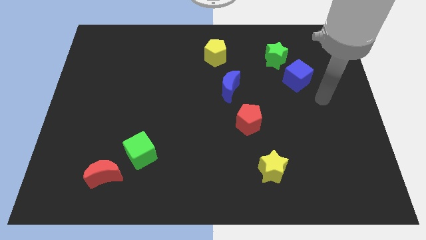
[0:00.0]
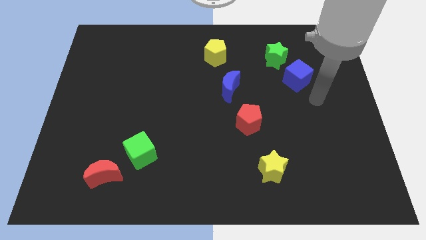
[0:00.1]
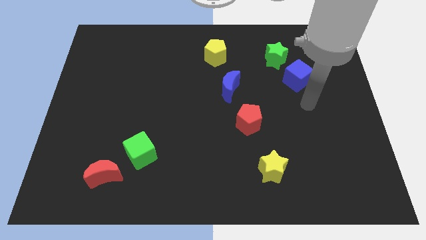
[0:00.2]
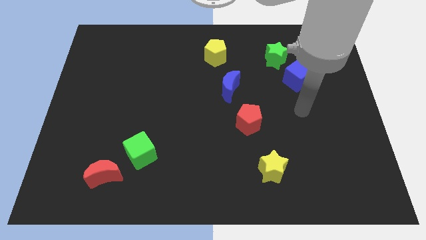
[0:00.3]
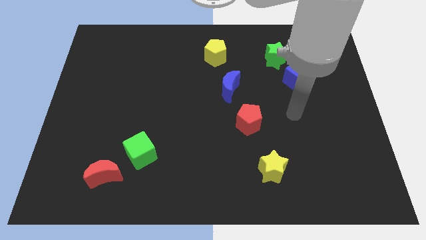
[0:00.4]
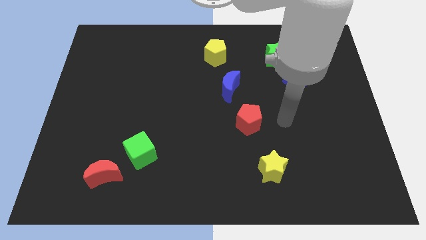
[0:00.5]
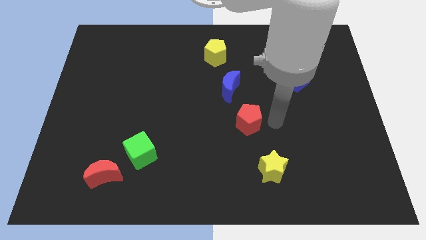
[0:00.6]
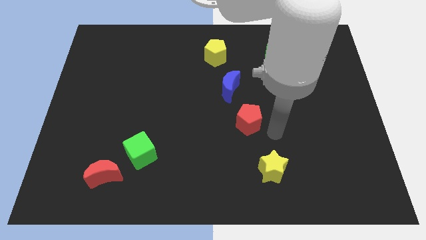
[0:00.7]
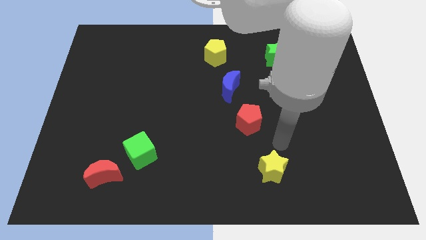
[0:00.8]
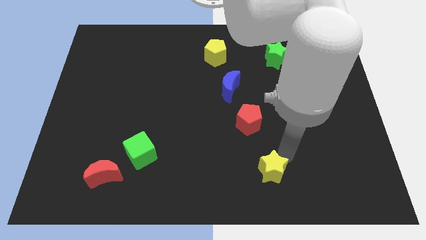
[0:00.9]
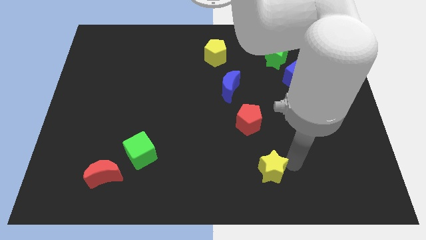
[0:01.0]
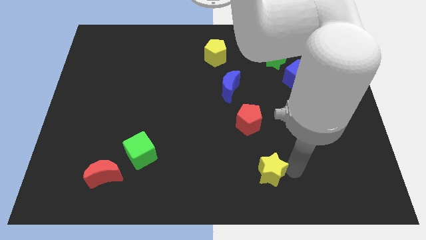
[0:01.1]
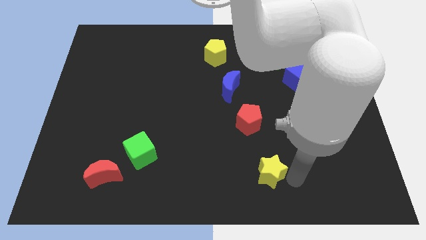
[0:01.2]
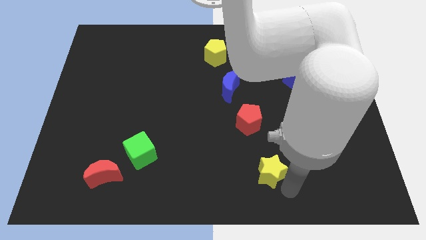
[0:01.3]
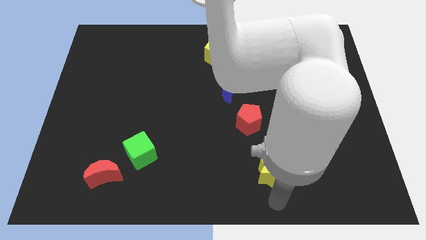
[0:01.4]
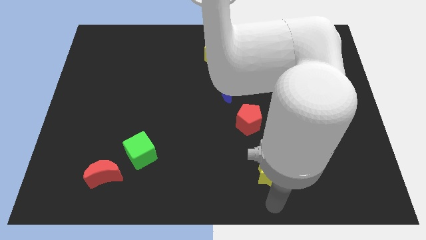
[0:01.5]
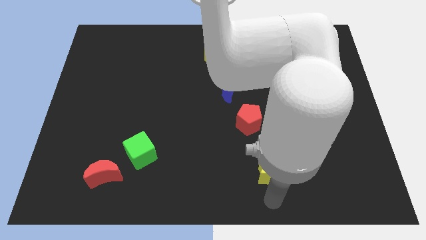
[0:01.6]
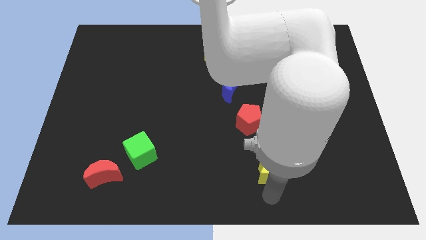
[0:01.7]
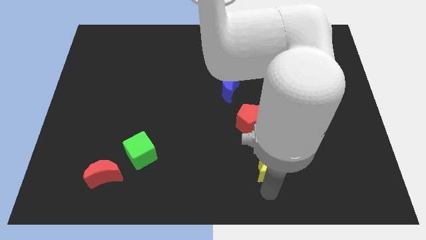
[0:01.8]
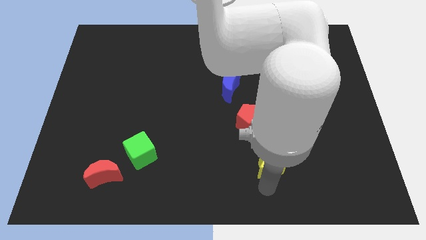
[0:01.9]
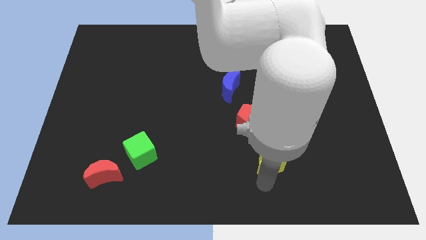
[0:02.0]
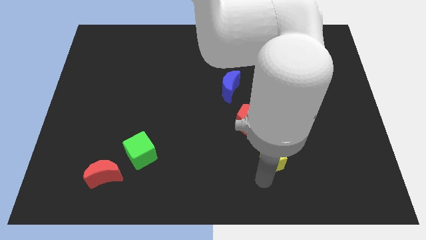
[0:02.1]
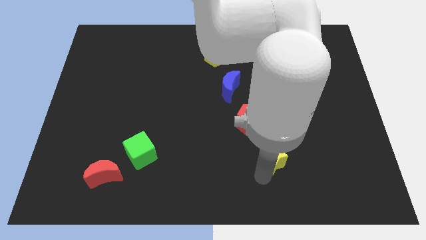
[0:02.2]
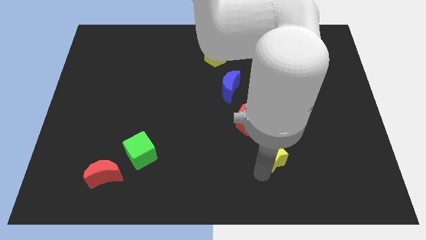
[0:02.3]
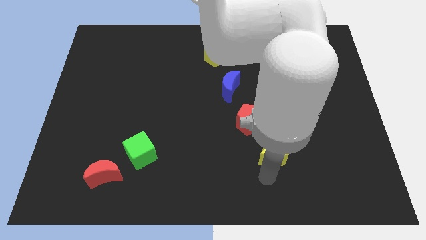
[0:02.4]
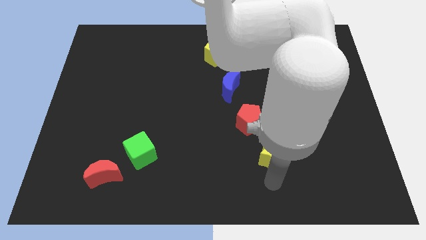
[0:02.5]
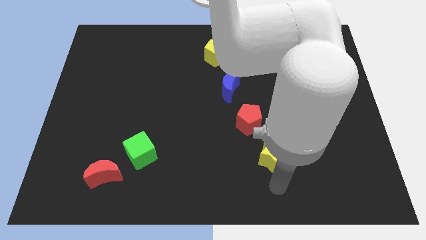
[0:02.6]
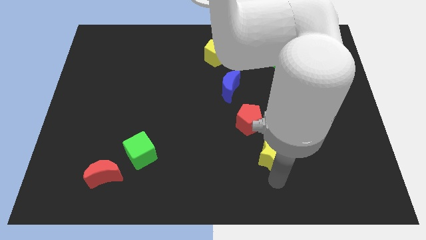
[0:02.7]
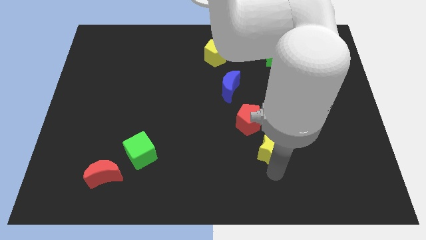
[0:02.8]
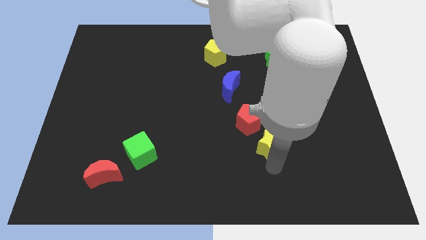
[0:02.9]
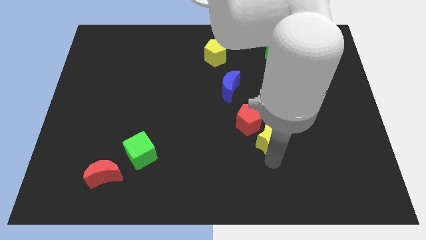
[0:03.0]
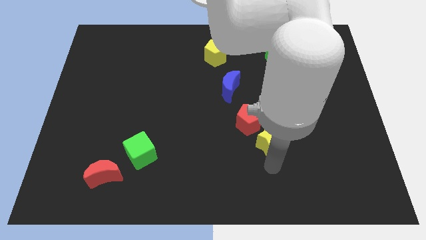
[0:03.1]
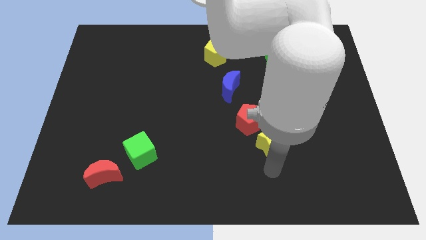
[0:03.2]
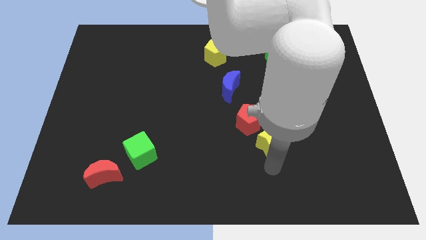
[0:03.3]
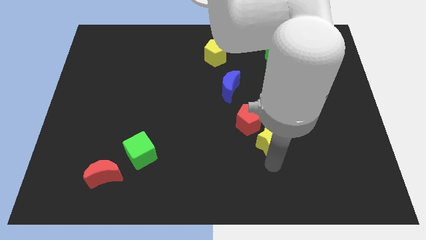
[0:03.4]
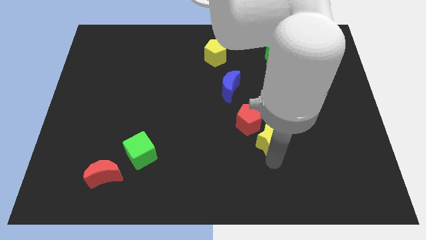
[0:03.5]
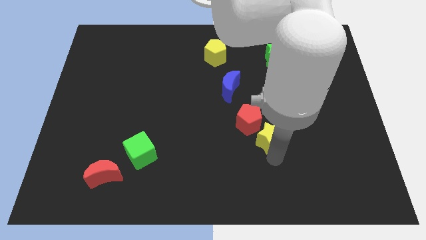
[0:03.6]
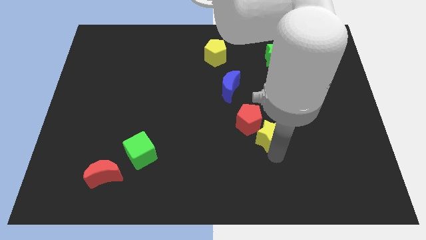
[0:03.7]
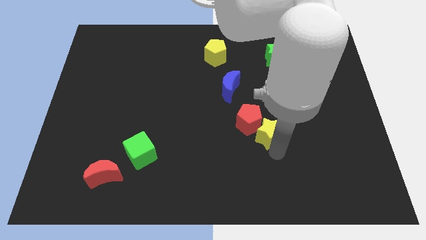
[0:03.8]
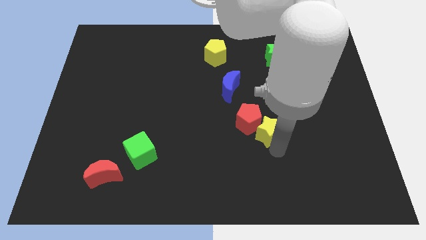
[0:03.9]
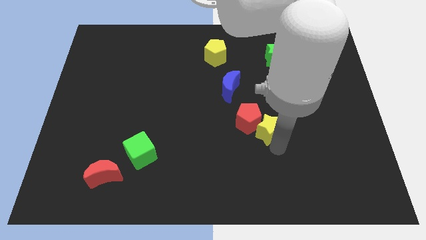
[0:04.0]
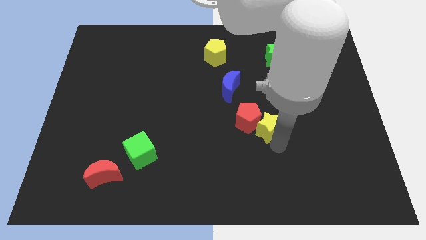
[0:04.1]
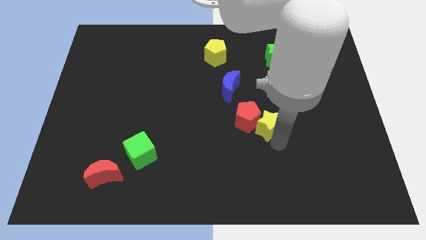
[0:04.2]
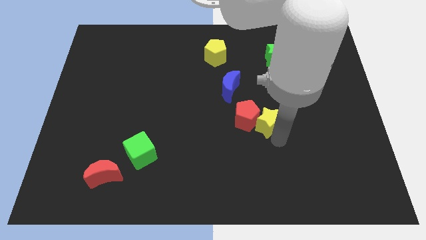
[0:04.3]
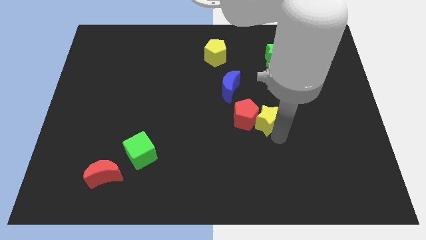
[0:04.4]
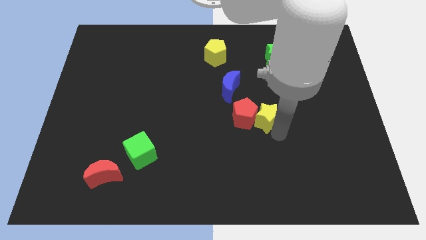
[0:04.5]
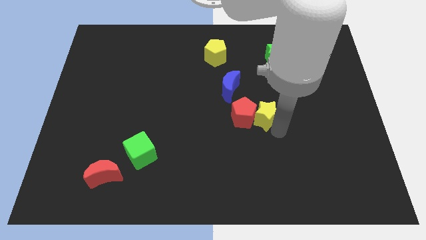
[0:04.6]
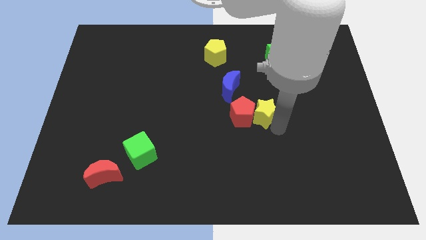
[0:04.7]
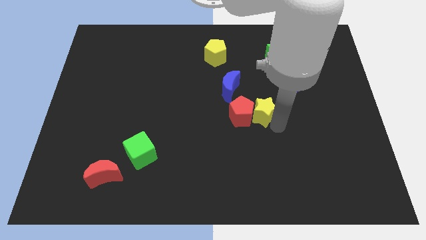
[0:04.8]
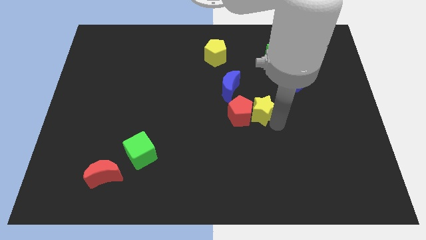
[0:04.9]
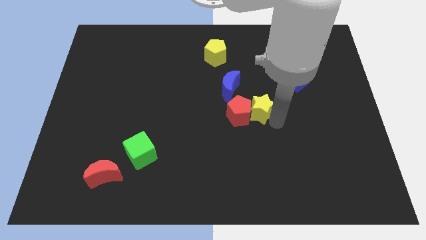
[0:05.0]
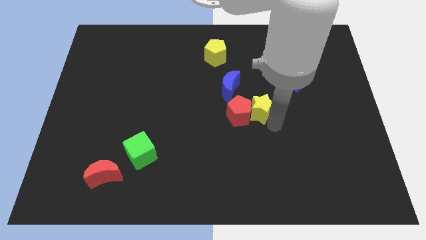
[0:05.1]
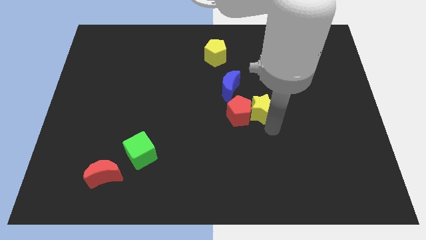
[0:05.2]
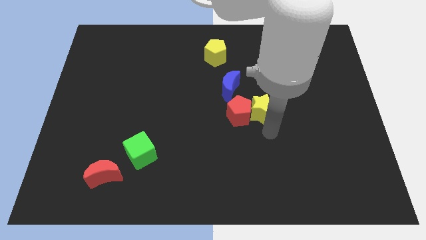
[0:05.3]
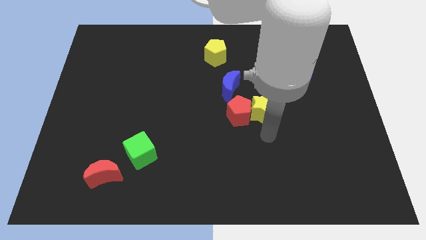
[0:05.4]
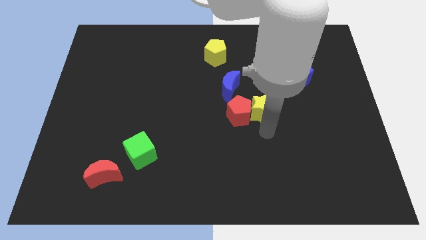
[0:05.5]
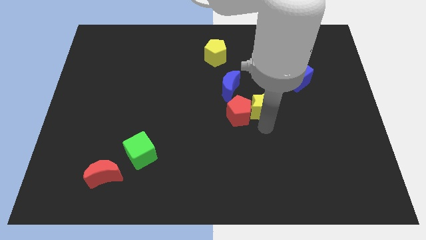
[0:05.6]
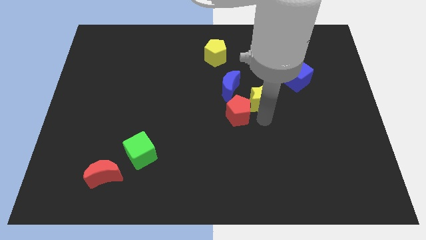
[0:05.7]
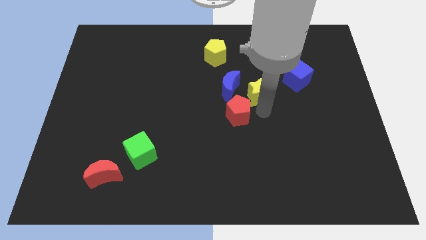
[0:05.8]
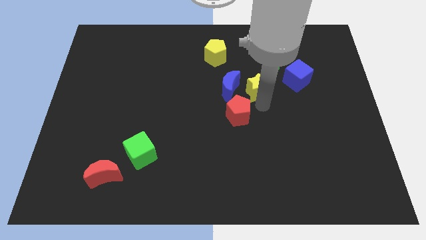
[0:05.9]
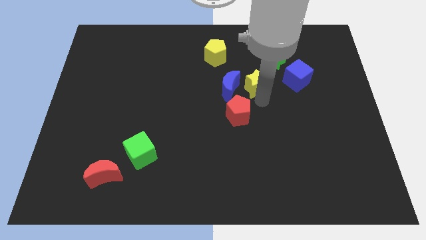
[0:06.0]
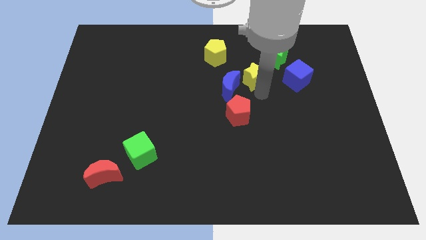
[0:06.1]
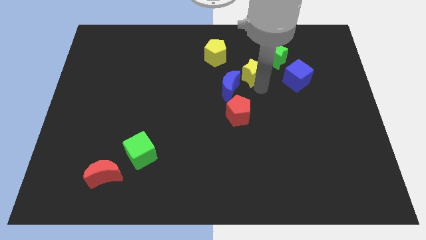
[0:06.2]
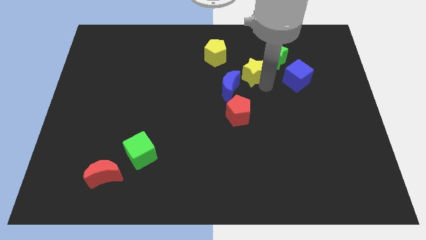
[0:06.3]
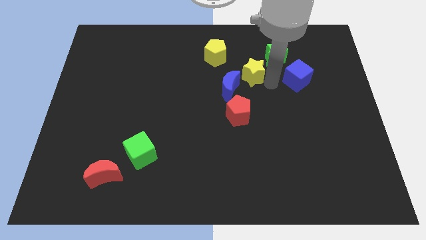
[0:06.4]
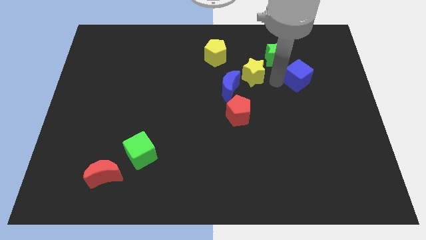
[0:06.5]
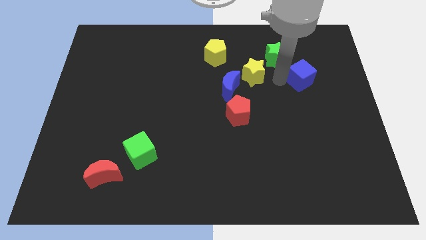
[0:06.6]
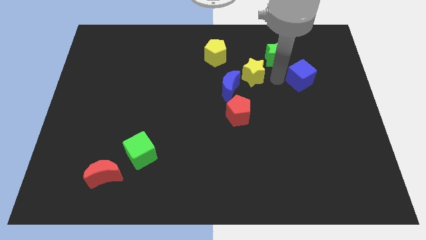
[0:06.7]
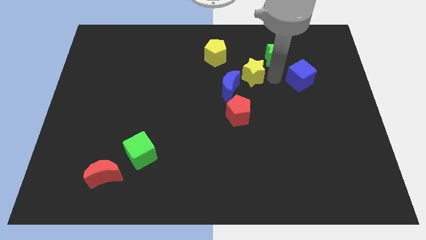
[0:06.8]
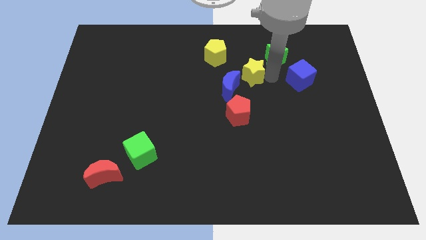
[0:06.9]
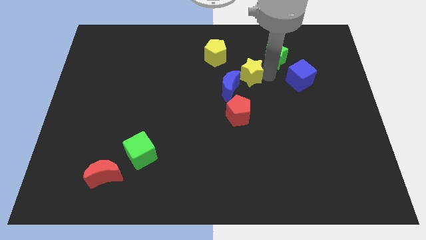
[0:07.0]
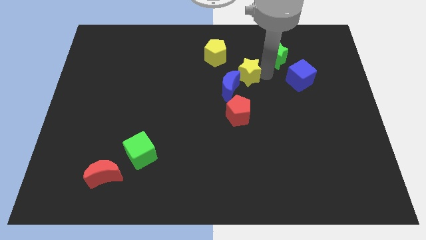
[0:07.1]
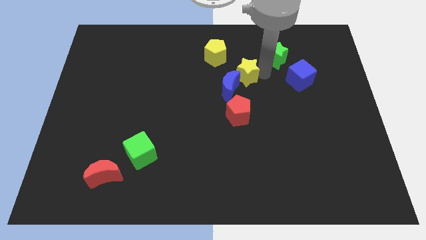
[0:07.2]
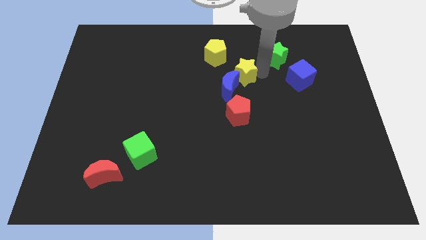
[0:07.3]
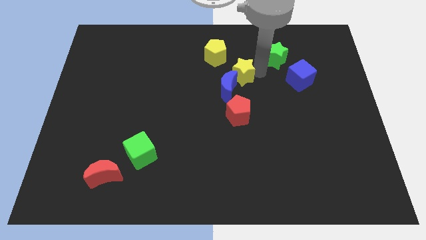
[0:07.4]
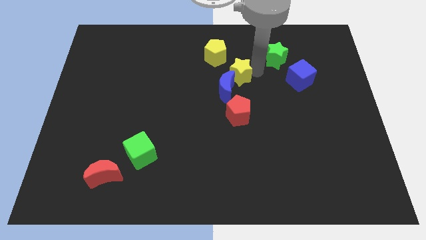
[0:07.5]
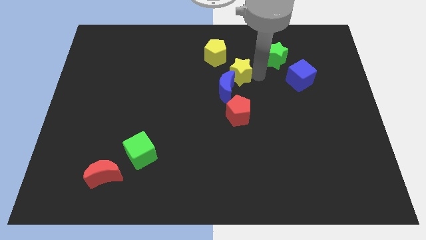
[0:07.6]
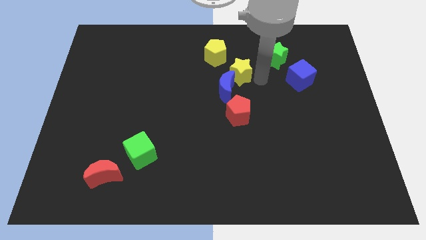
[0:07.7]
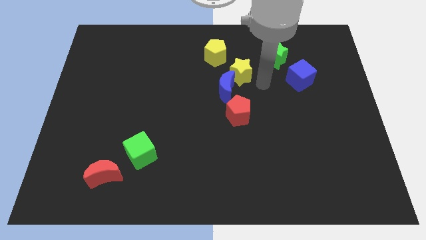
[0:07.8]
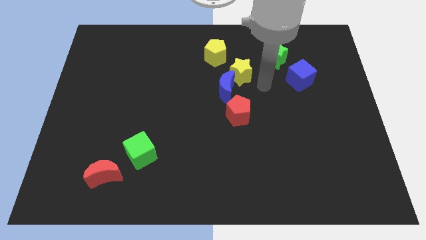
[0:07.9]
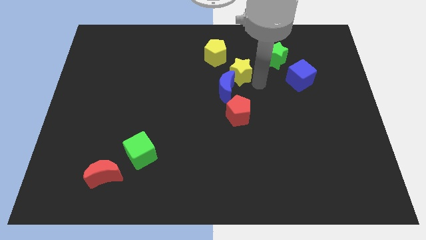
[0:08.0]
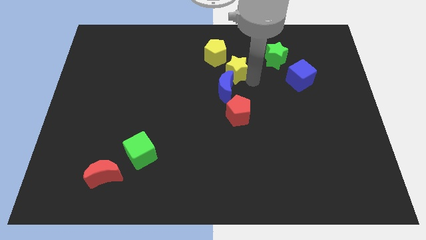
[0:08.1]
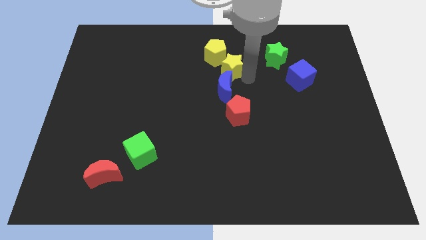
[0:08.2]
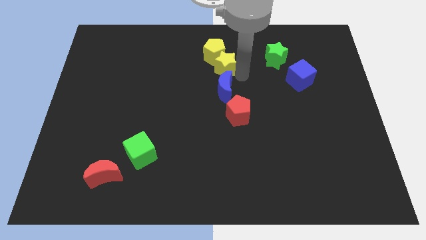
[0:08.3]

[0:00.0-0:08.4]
move the yellow star close to the yellow pentagon

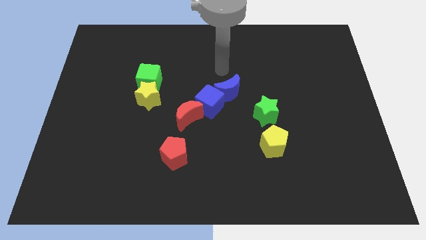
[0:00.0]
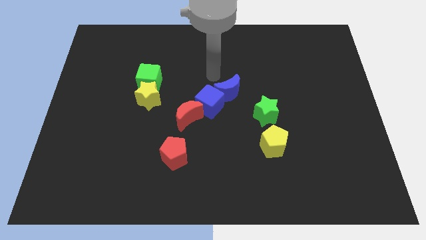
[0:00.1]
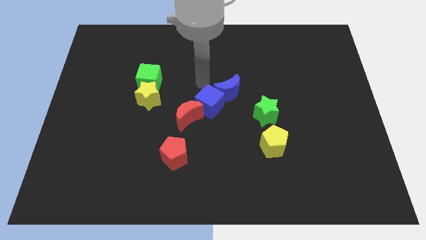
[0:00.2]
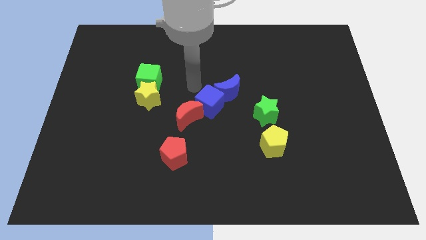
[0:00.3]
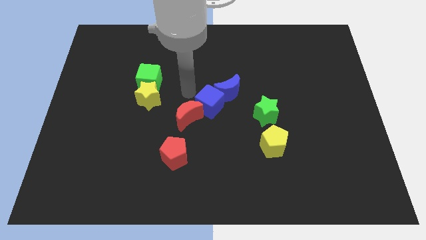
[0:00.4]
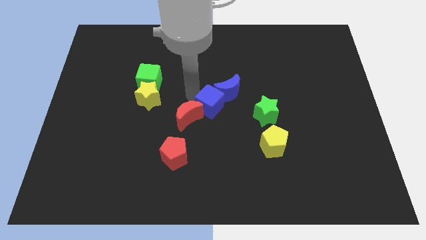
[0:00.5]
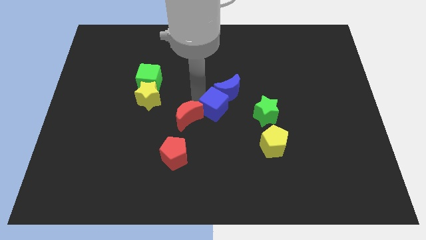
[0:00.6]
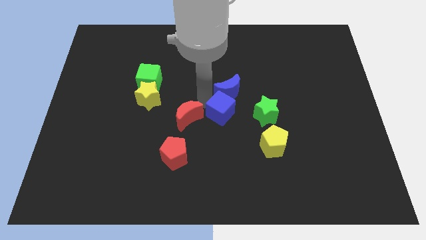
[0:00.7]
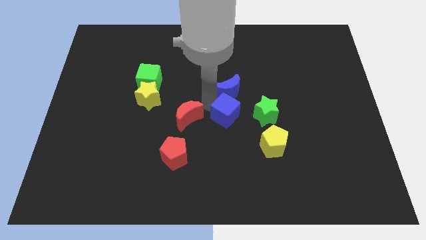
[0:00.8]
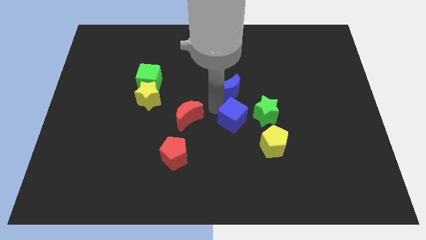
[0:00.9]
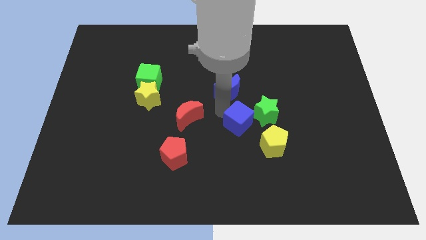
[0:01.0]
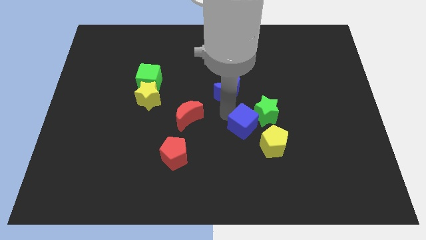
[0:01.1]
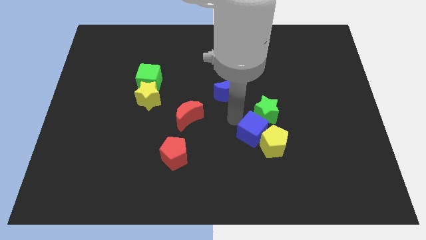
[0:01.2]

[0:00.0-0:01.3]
move the blue cube to the yellow pentagon
